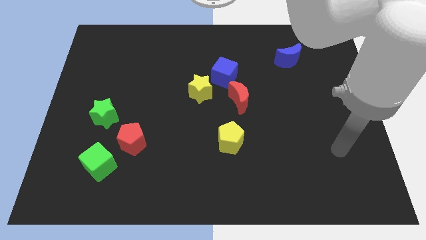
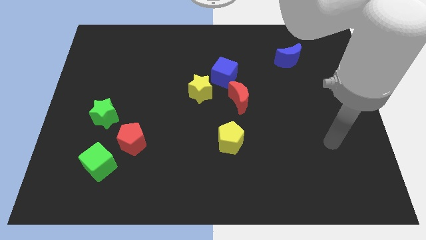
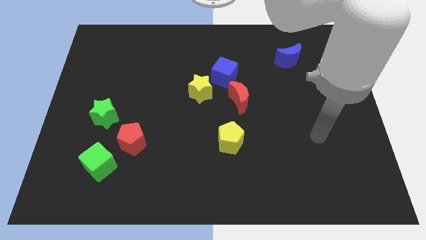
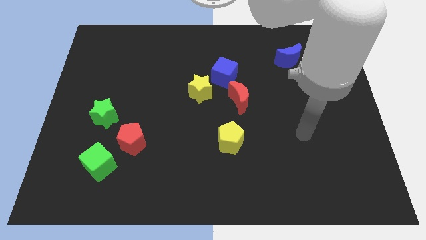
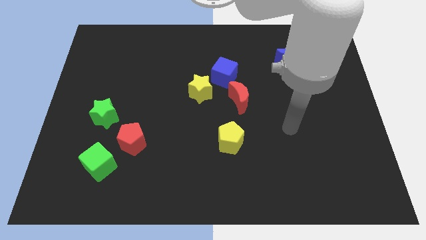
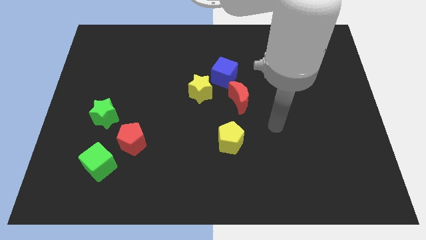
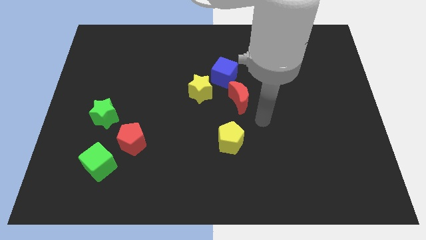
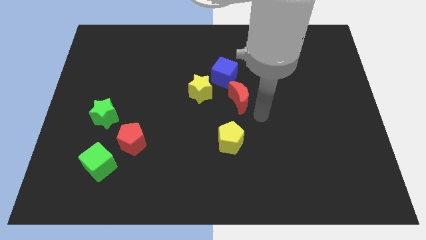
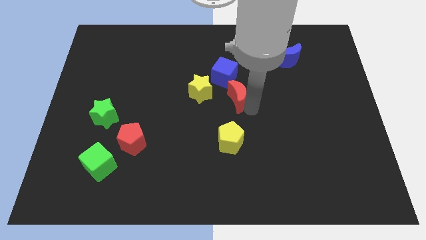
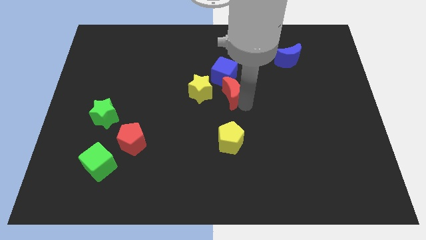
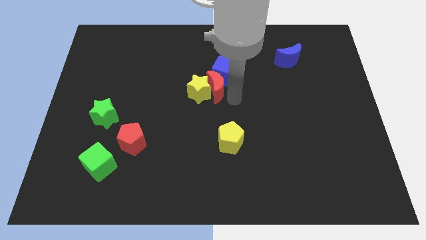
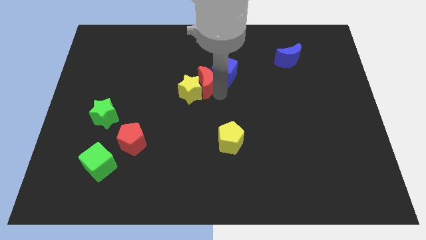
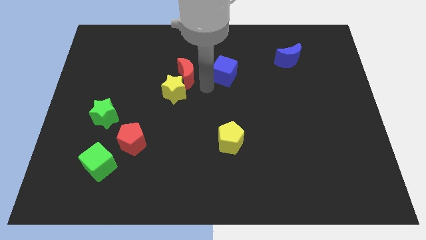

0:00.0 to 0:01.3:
pull the blue cube apart from the yellow star and red moon

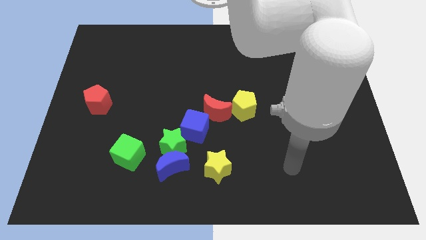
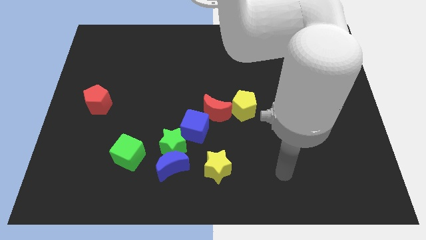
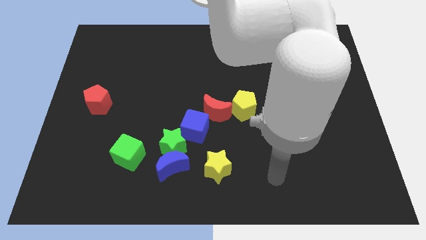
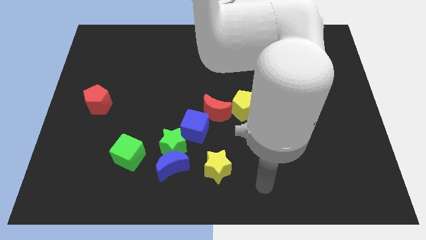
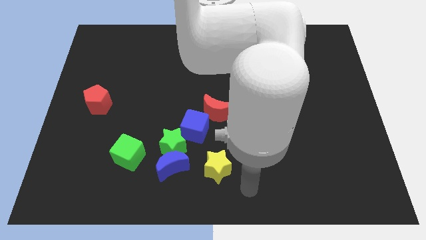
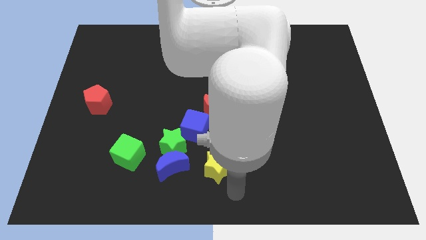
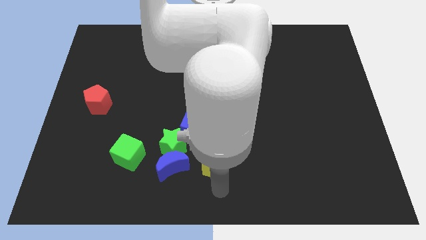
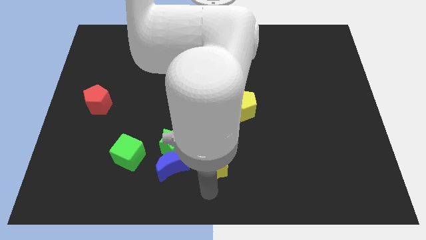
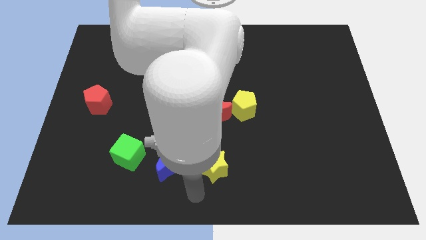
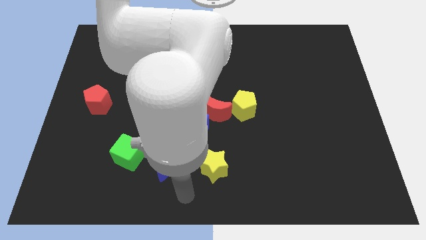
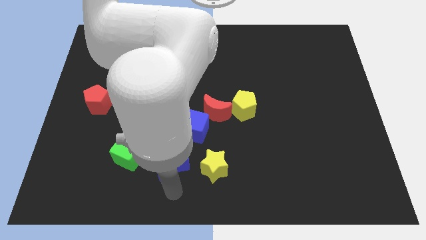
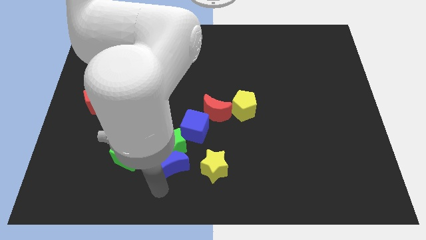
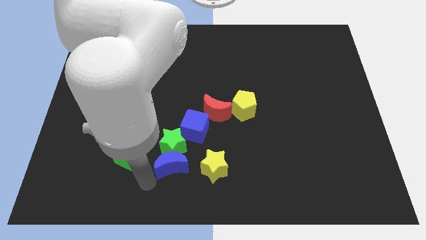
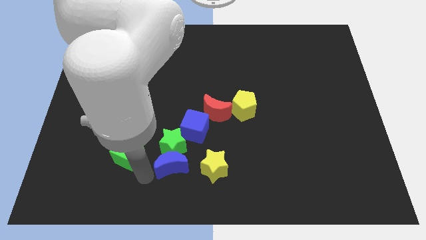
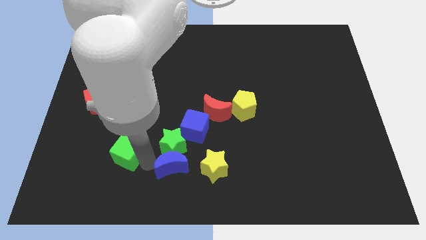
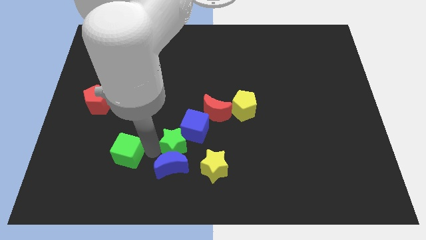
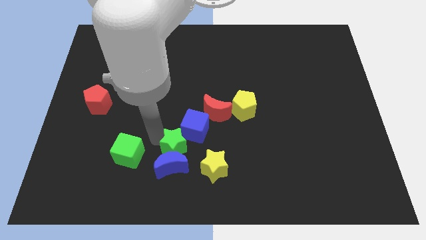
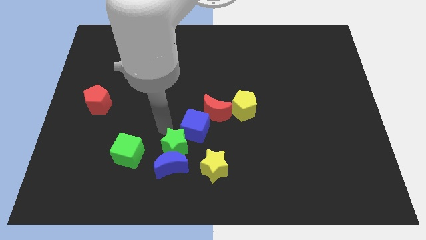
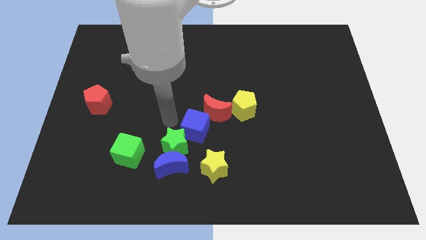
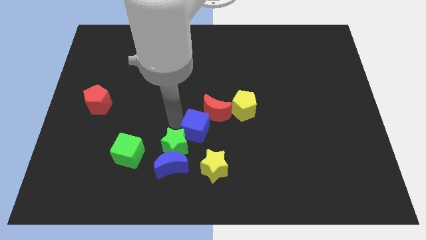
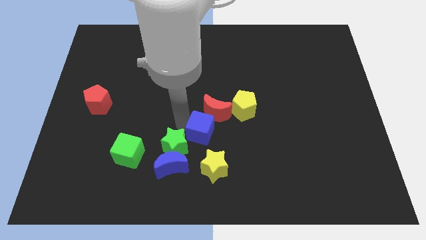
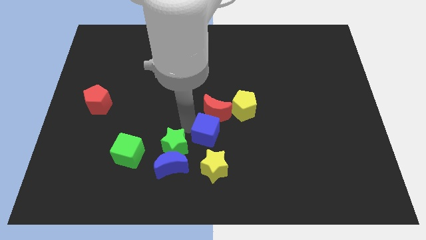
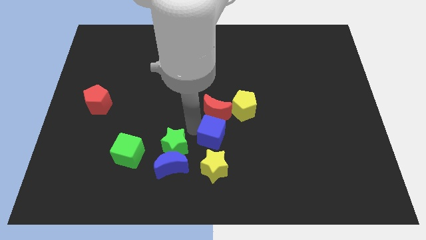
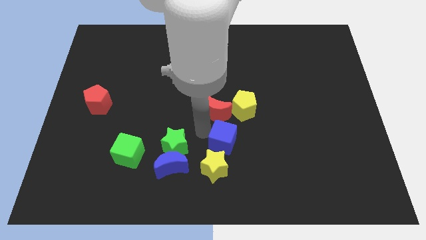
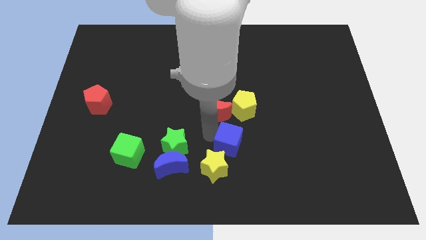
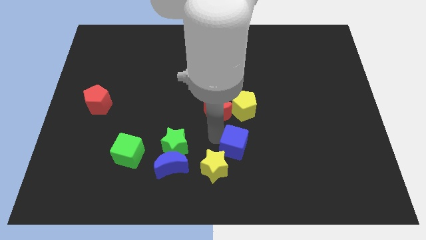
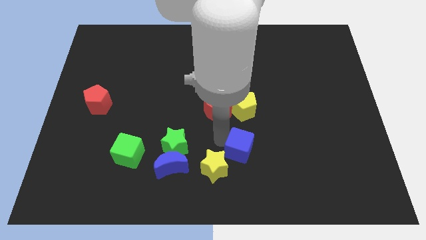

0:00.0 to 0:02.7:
move the blue cube away from the red moon and green star

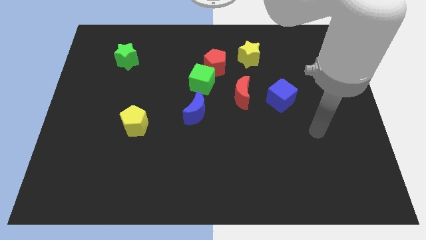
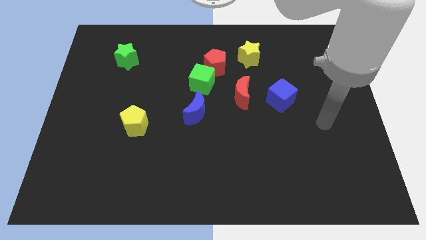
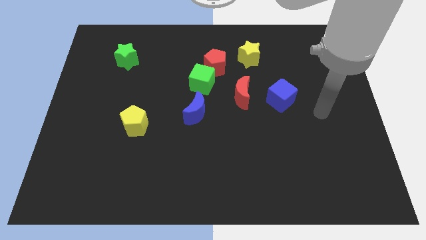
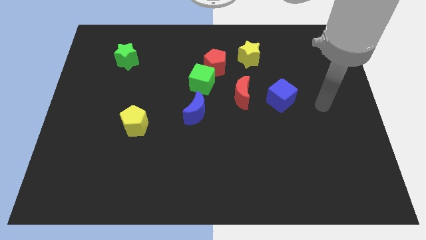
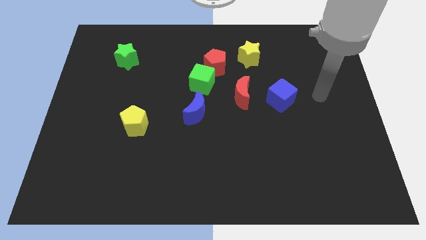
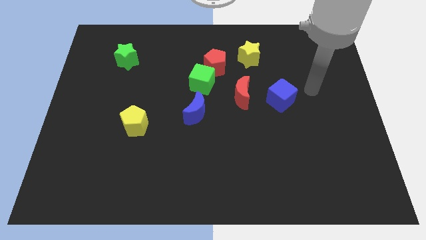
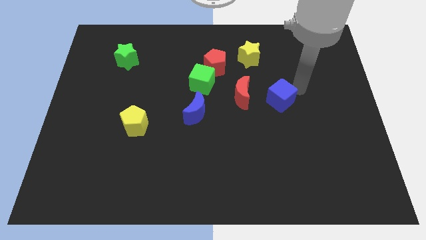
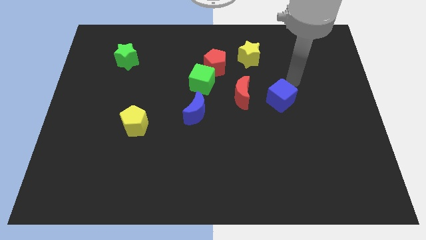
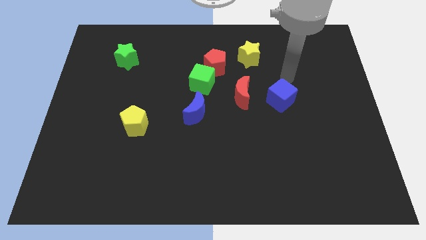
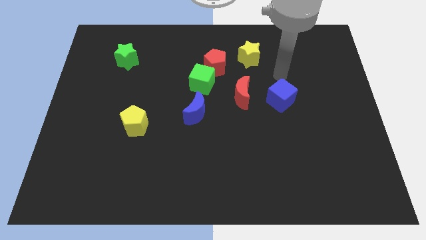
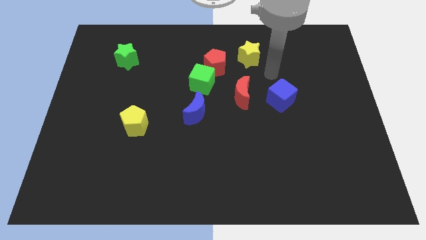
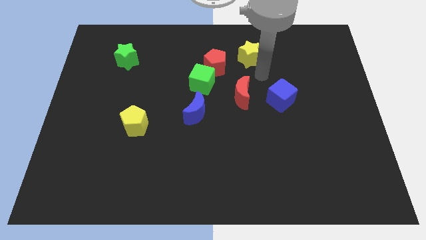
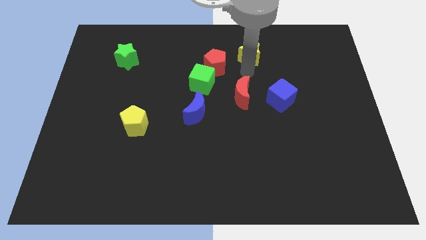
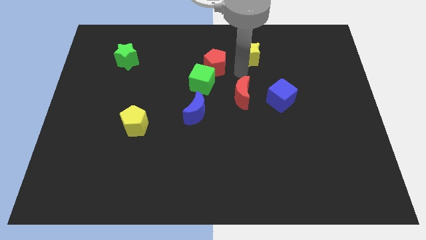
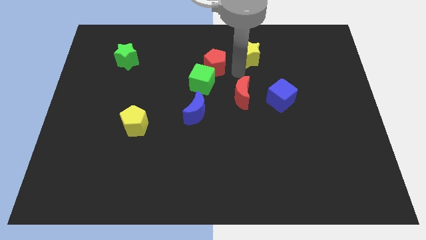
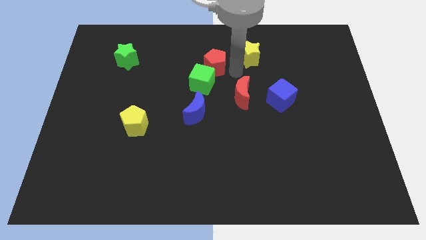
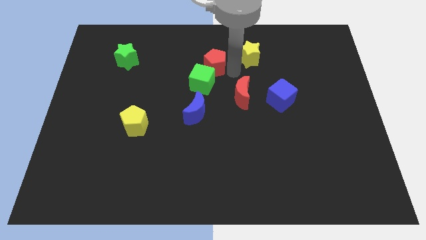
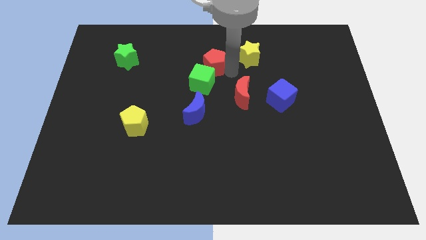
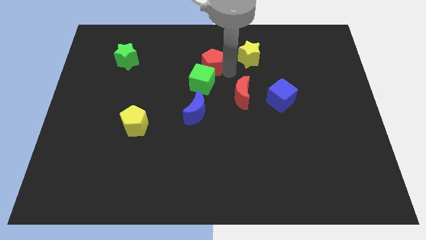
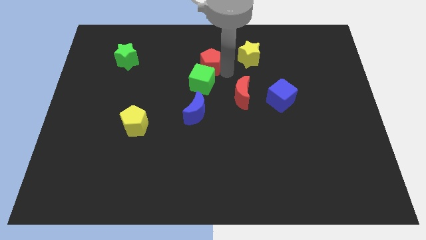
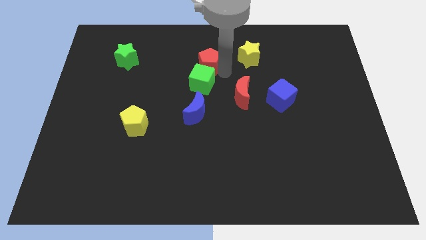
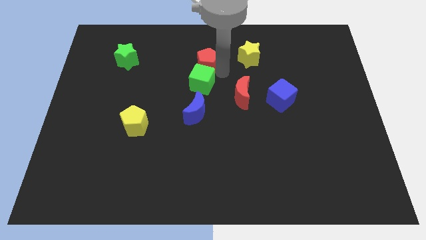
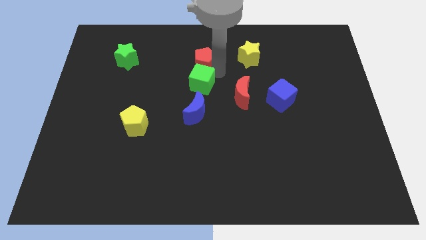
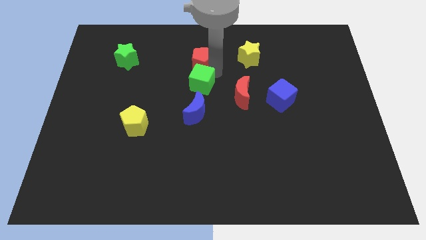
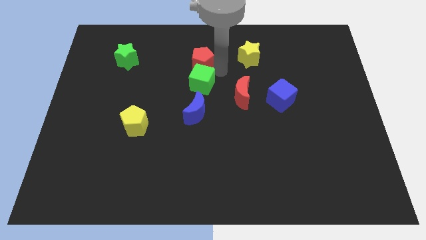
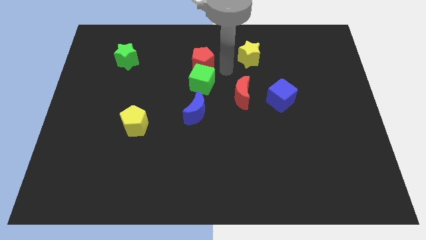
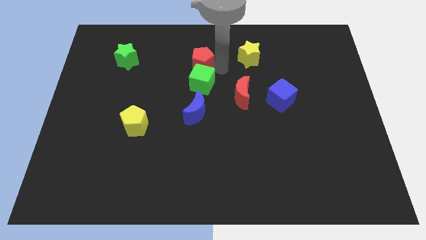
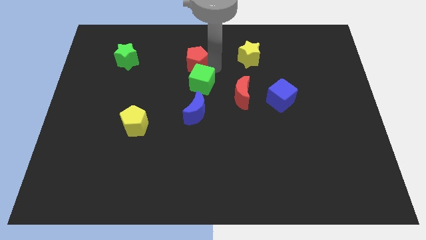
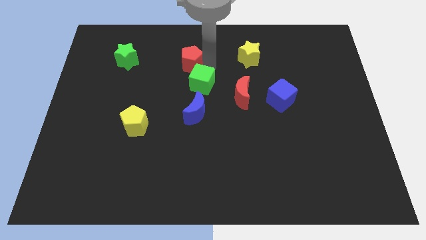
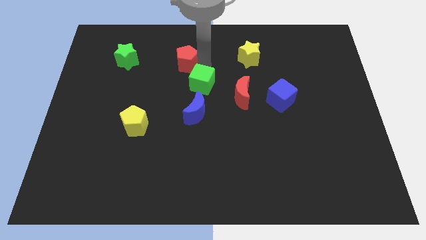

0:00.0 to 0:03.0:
move the red pentagon away from the green cube and yellow star

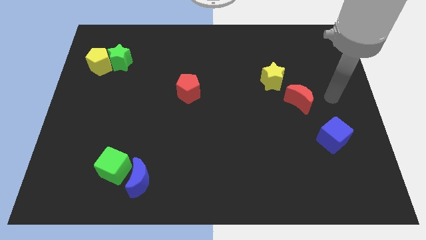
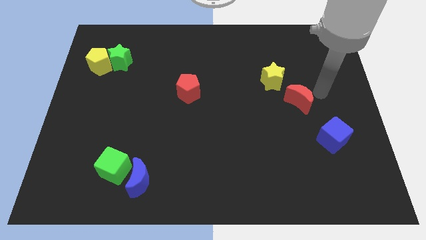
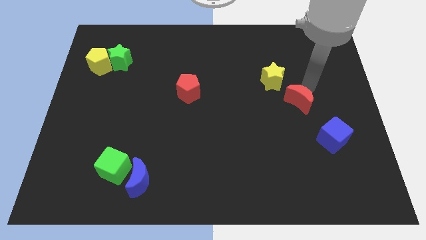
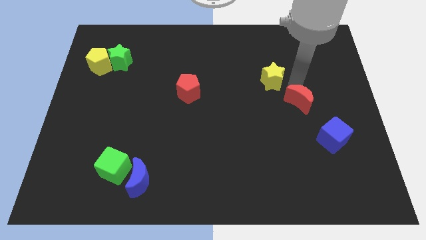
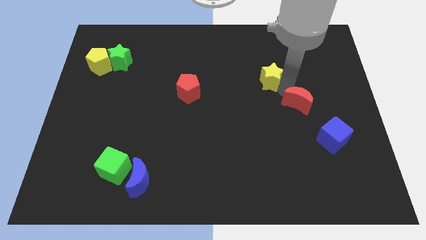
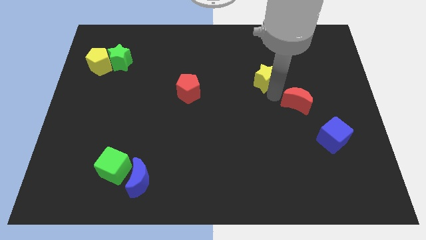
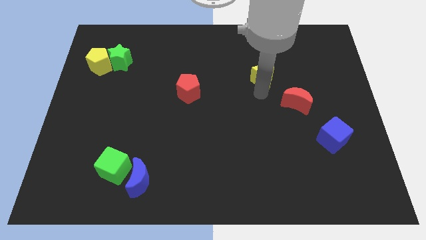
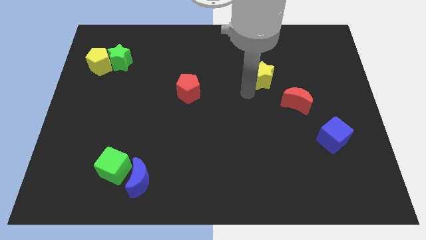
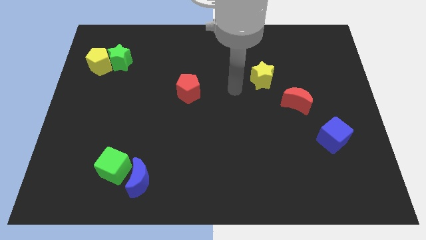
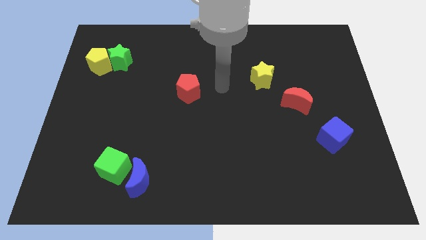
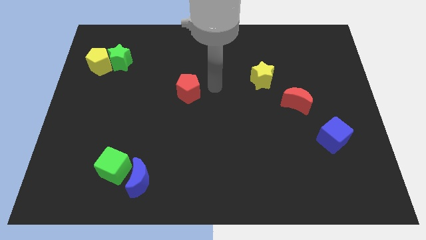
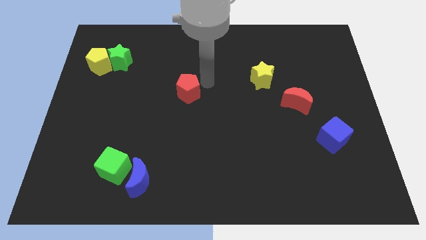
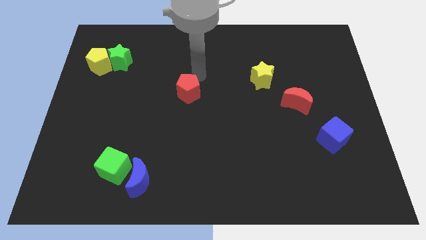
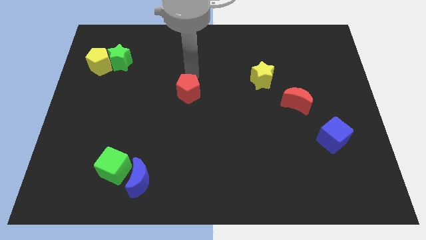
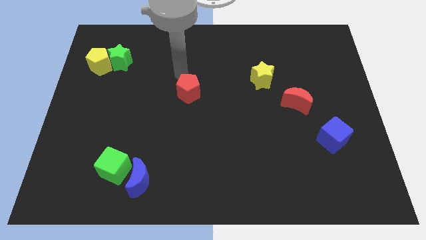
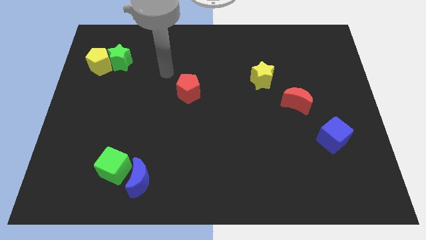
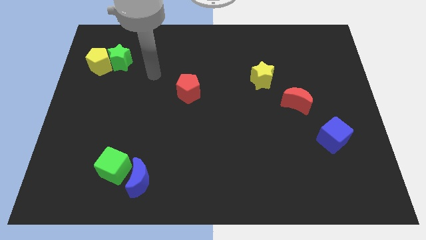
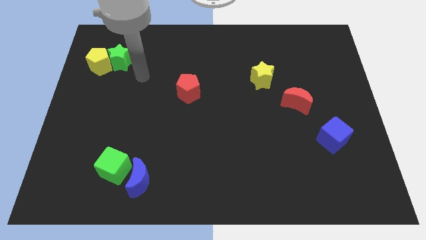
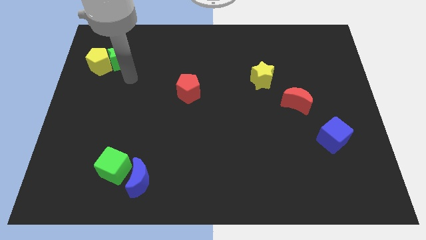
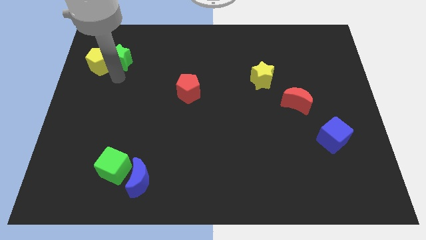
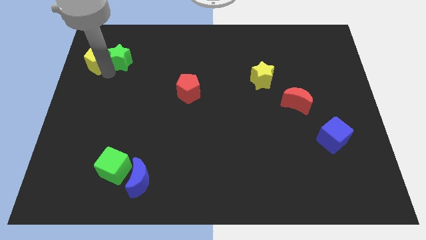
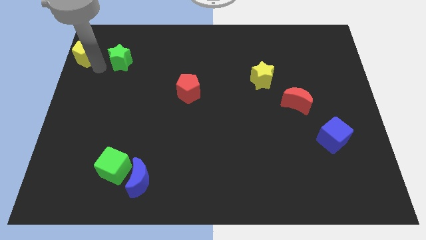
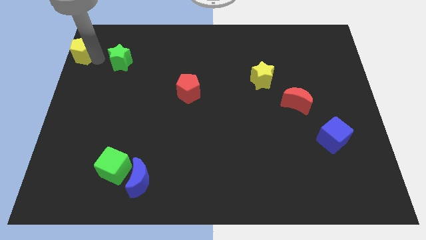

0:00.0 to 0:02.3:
move the green star away from the yellow pentagon
